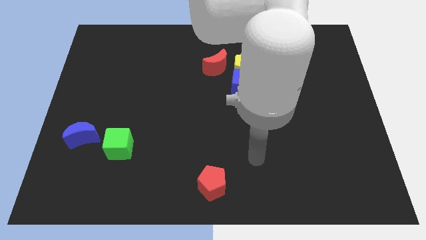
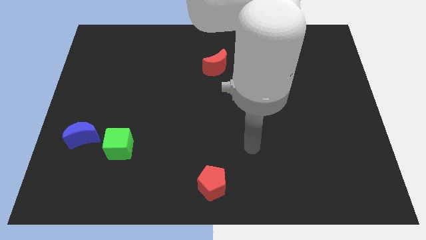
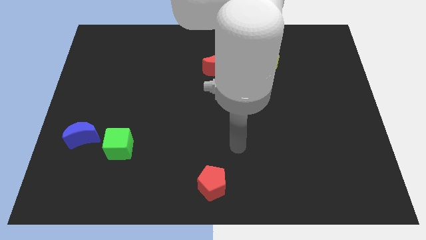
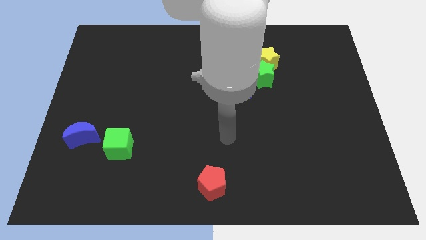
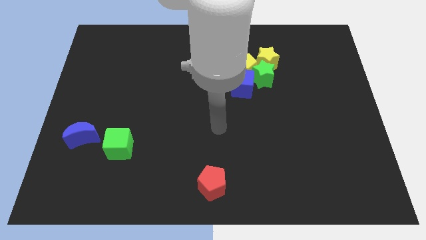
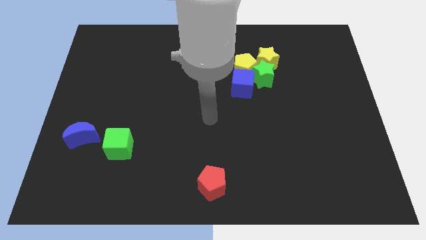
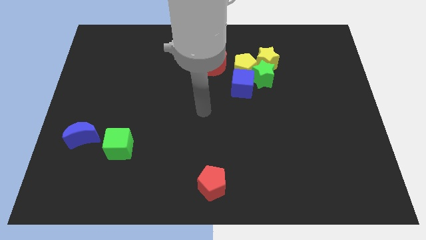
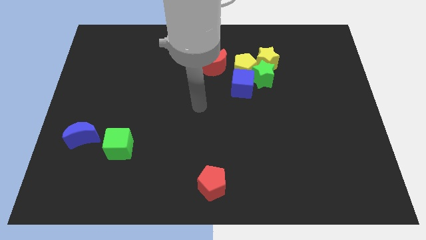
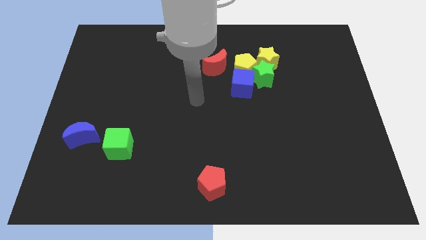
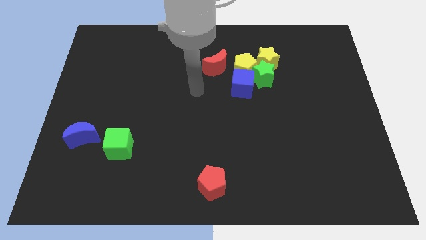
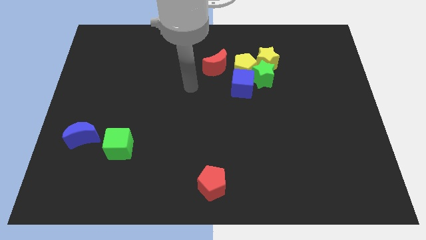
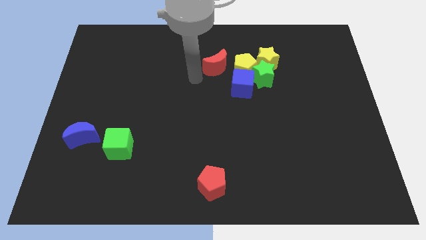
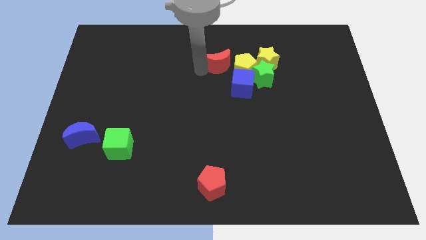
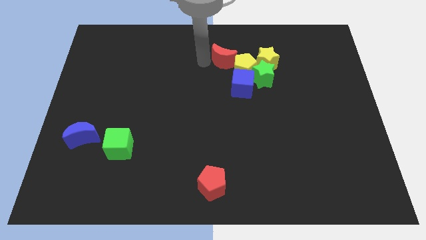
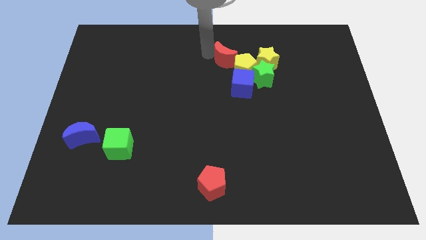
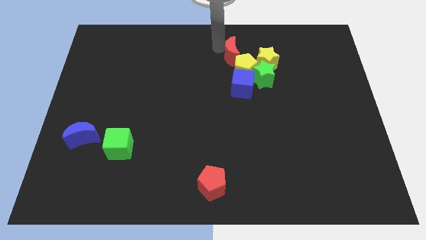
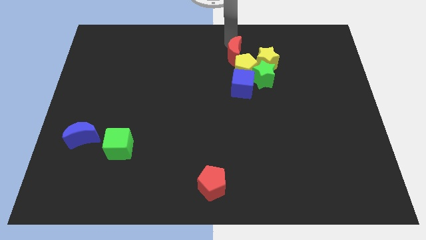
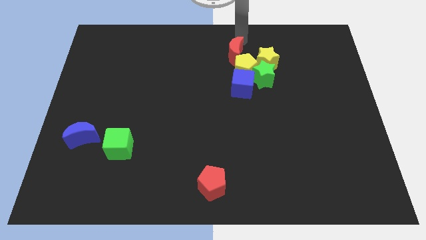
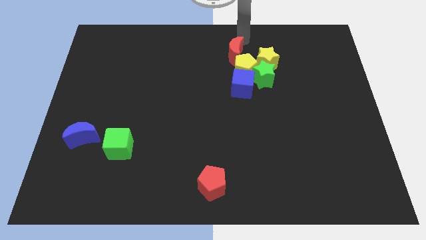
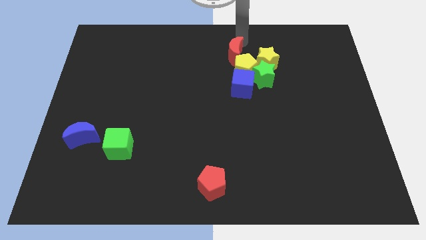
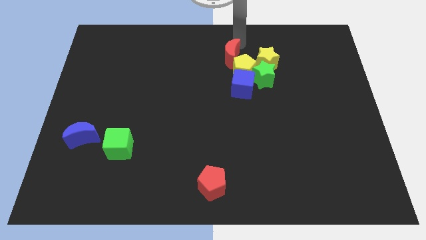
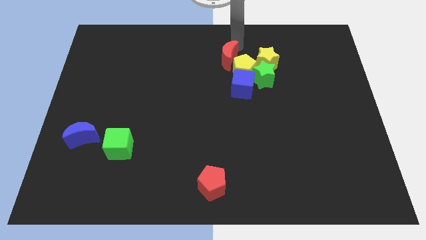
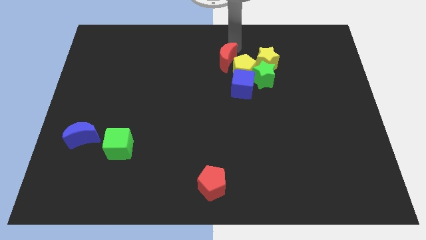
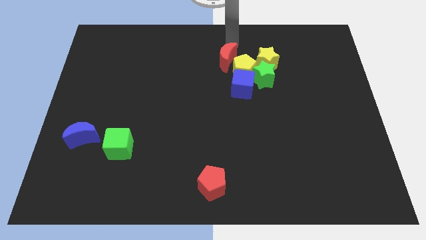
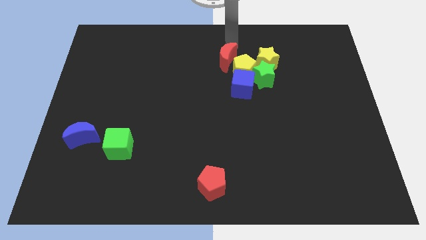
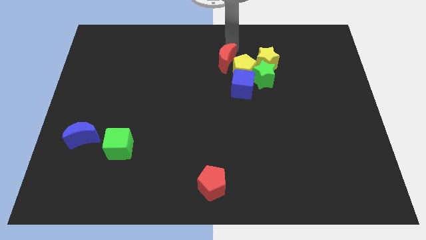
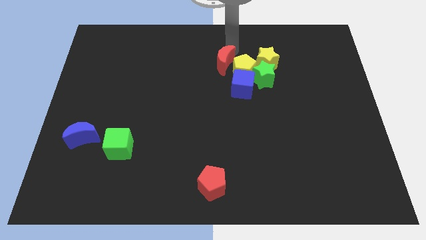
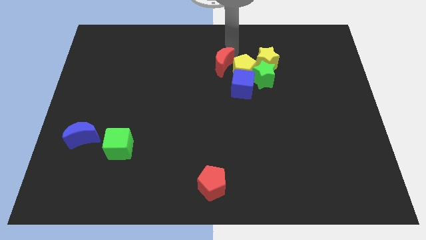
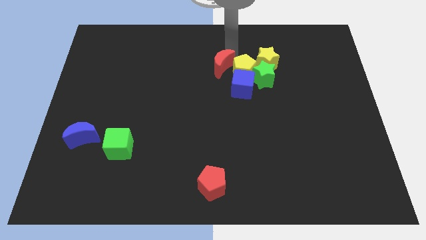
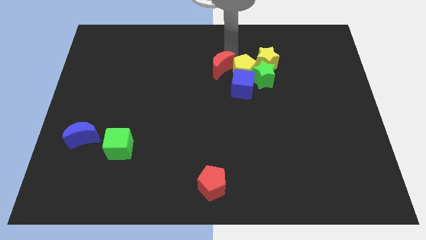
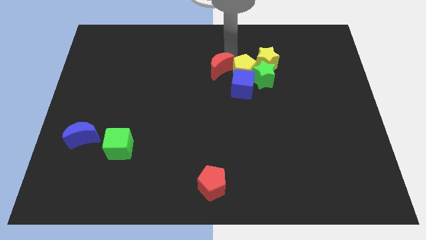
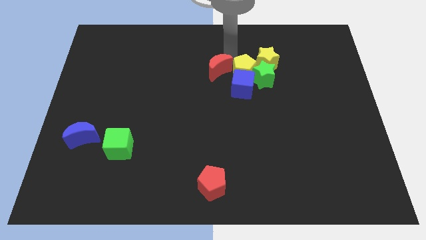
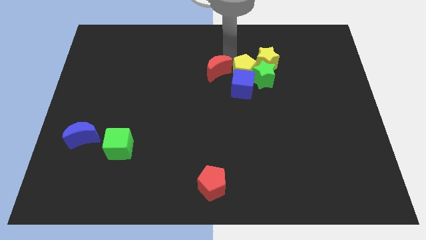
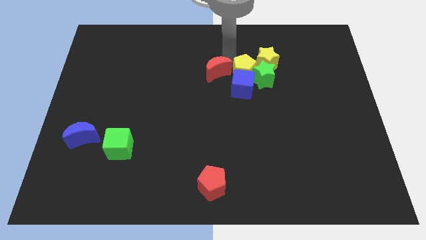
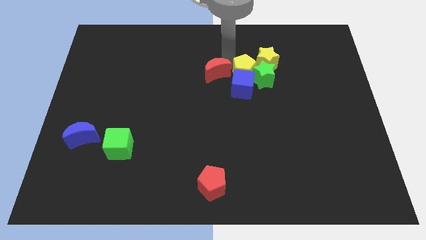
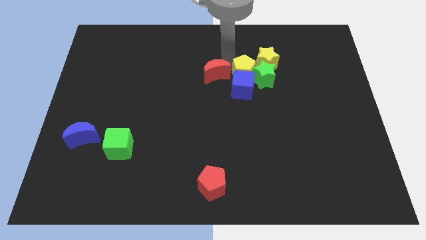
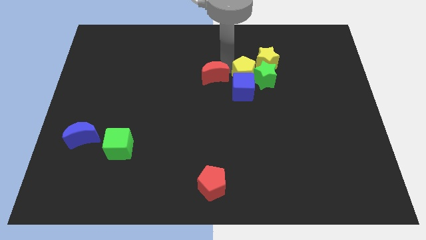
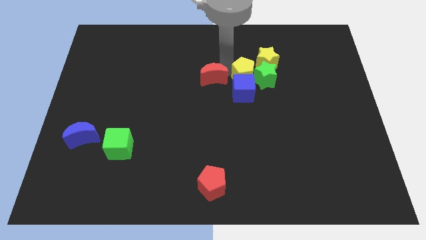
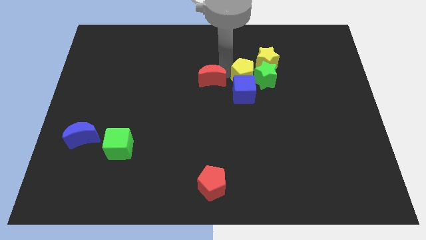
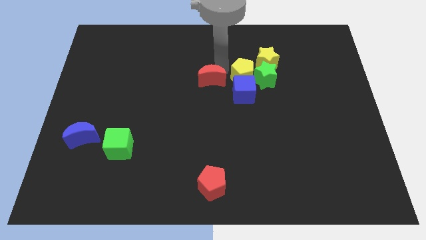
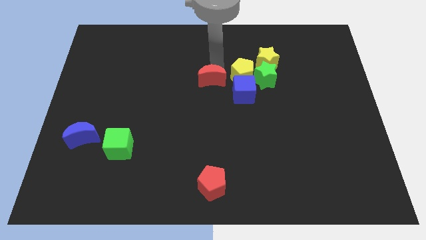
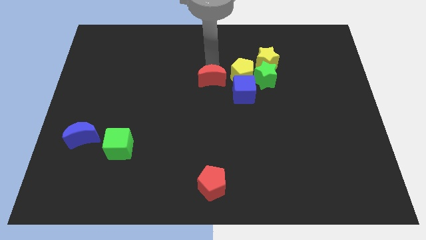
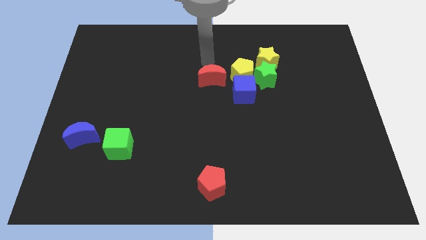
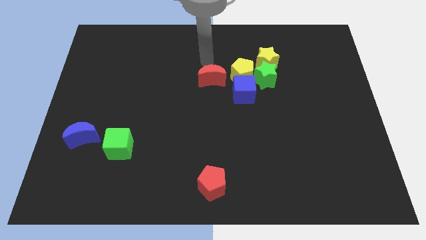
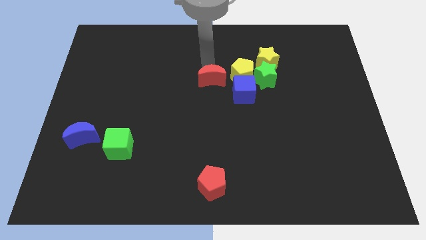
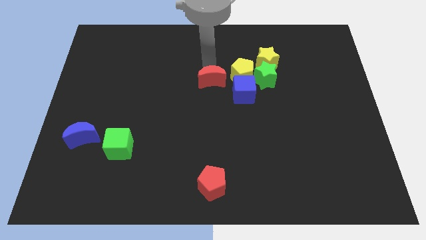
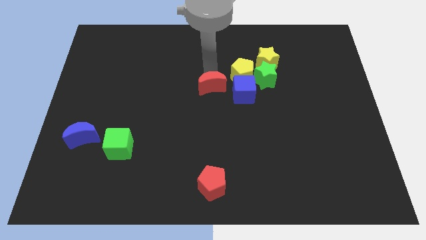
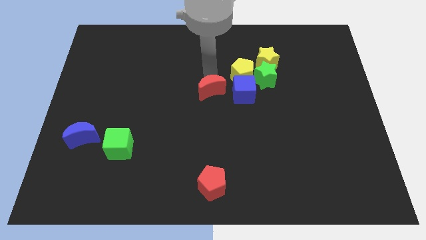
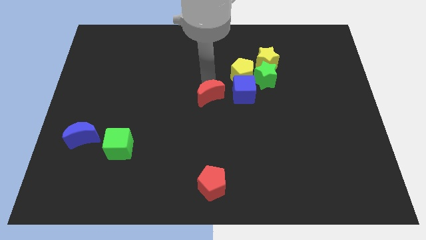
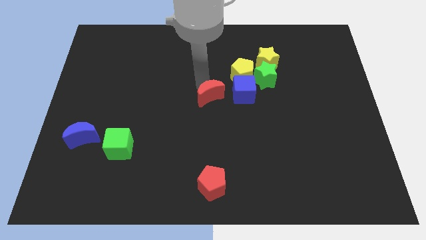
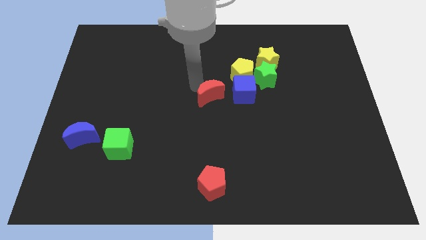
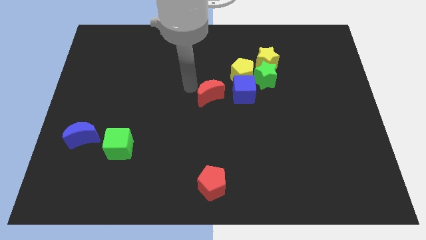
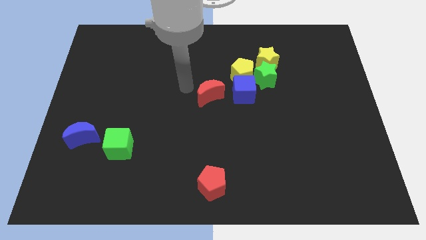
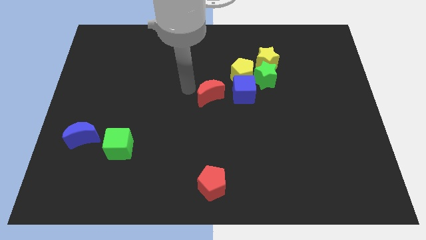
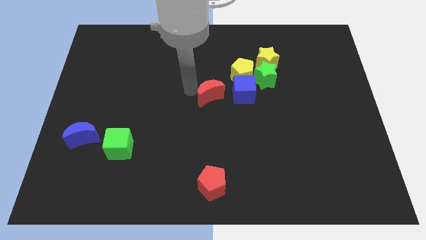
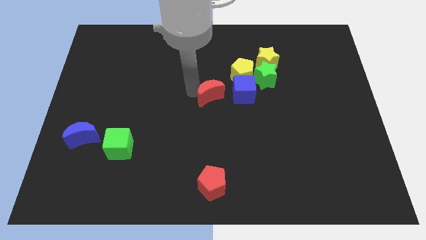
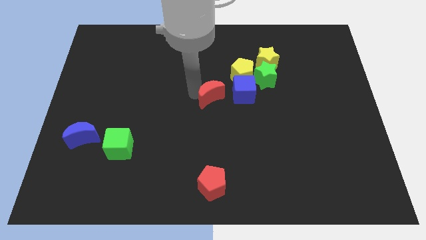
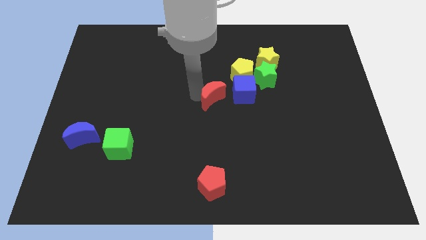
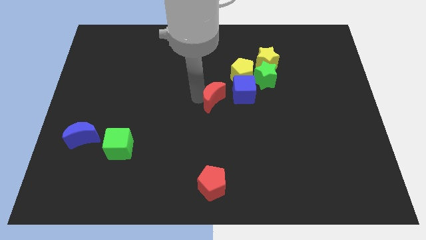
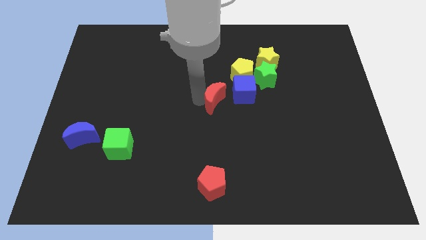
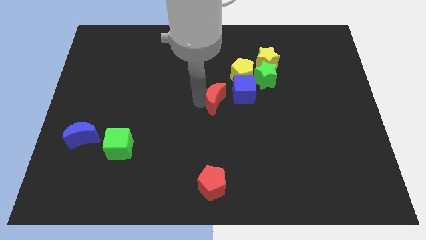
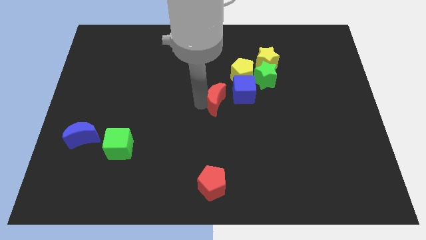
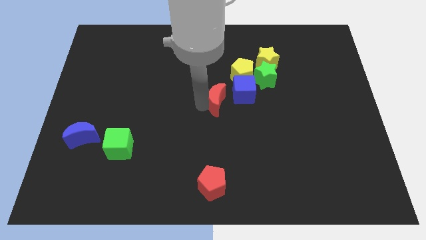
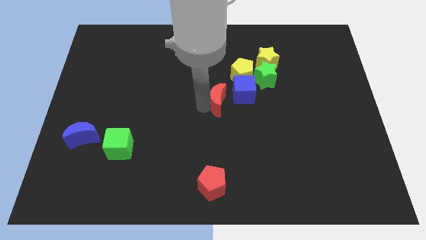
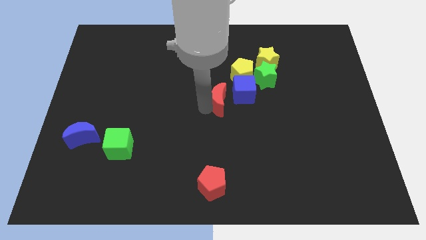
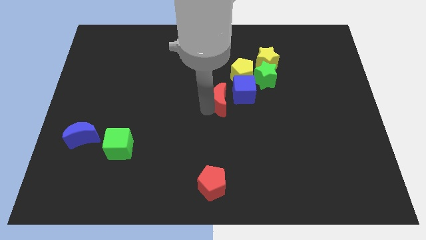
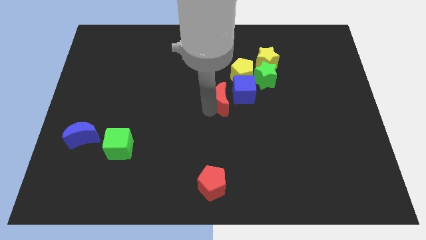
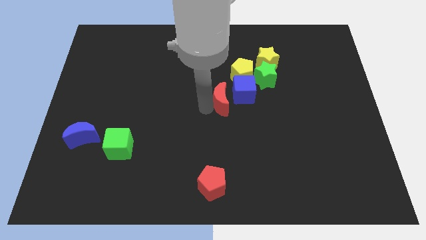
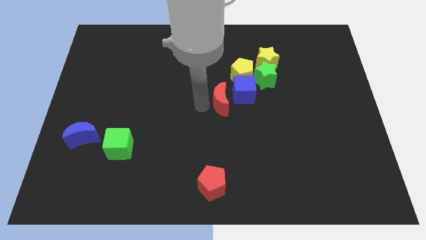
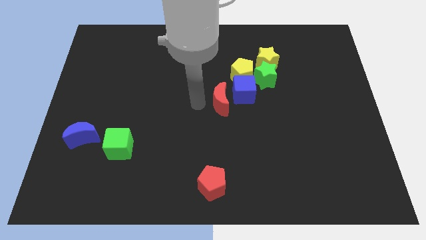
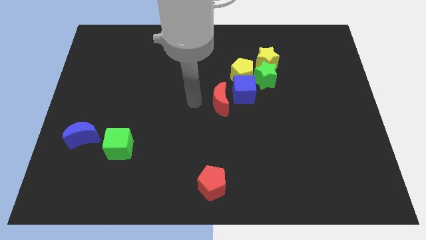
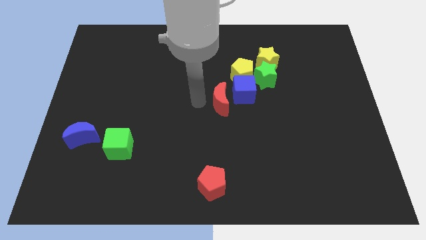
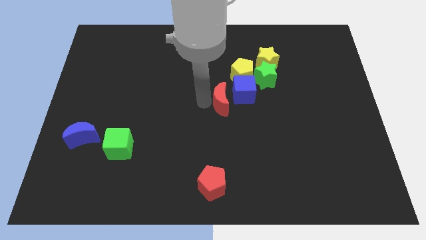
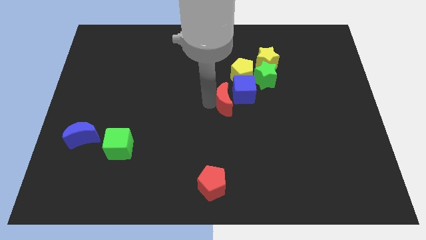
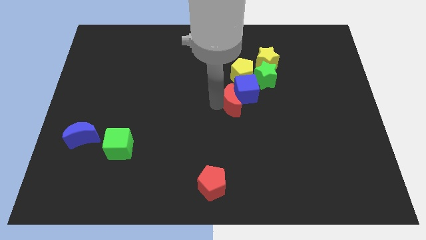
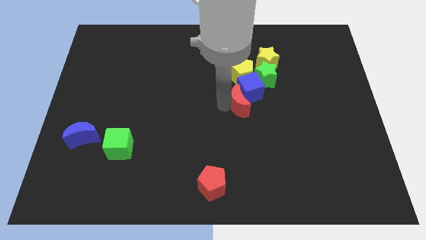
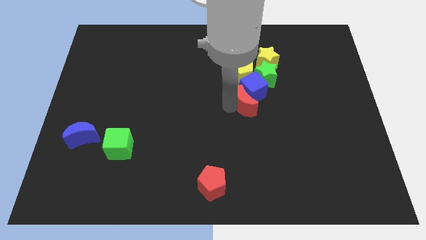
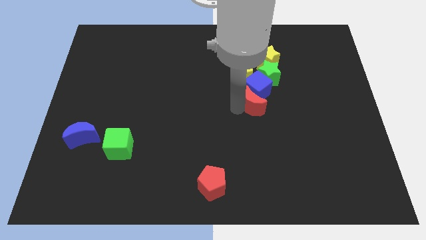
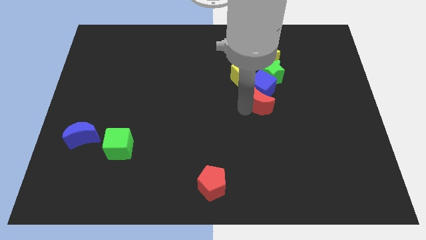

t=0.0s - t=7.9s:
move the red moon to the bottom right side of the yellow pentagon
